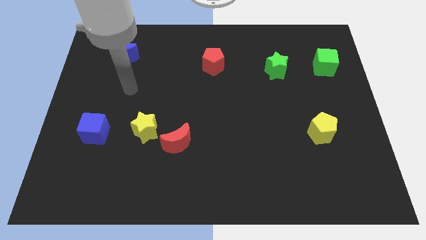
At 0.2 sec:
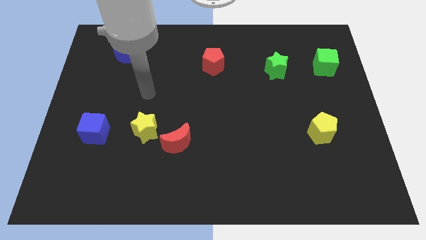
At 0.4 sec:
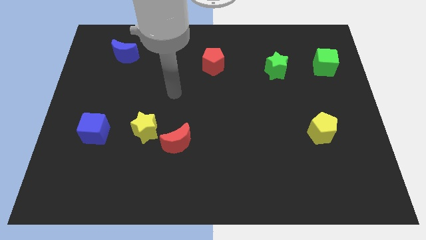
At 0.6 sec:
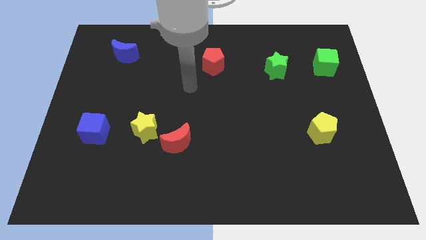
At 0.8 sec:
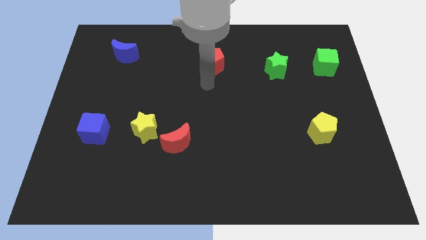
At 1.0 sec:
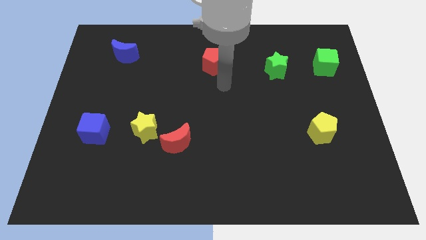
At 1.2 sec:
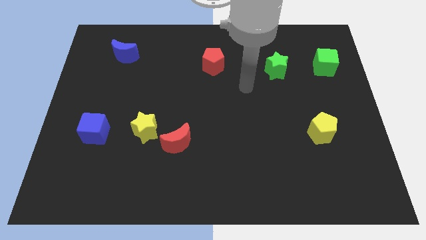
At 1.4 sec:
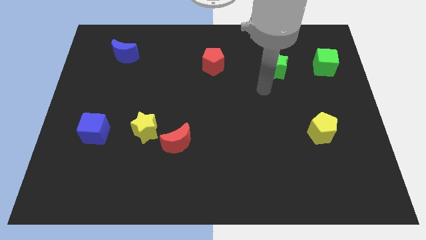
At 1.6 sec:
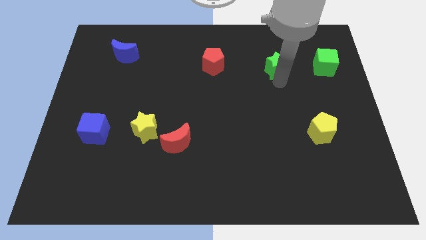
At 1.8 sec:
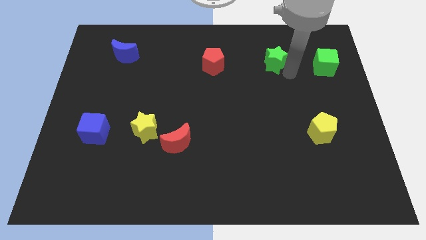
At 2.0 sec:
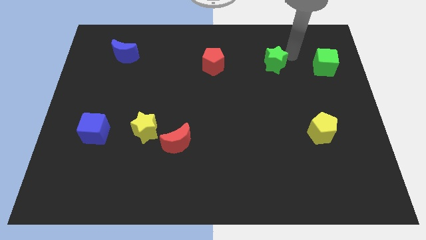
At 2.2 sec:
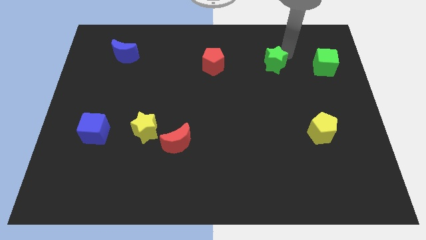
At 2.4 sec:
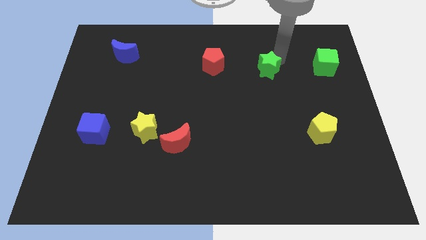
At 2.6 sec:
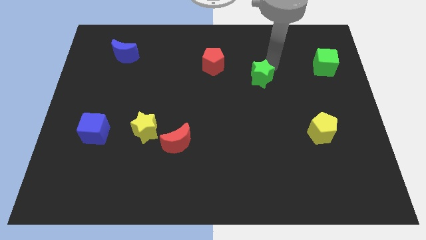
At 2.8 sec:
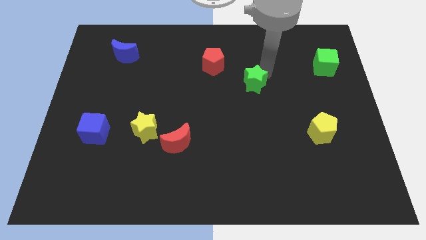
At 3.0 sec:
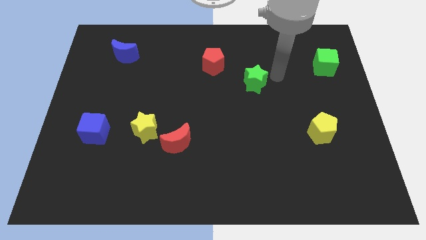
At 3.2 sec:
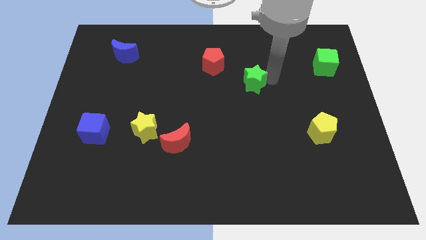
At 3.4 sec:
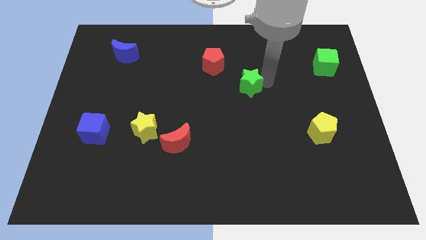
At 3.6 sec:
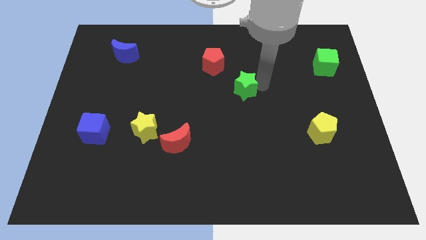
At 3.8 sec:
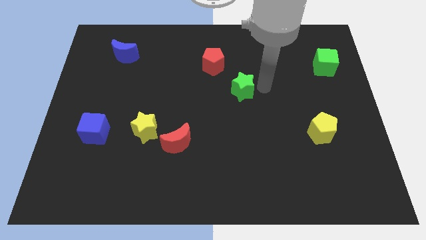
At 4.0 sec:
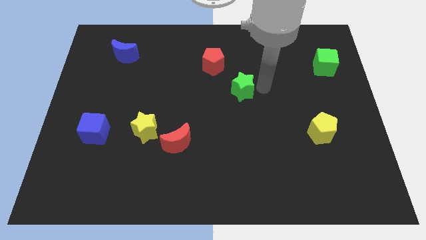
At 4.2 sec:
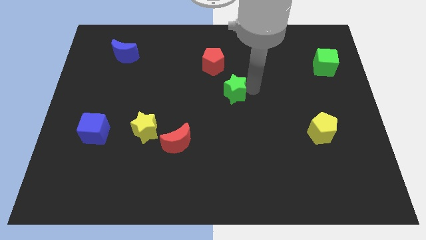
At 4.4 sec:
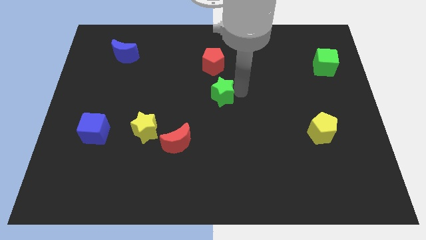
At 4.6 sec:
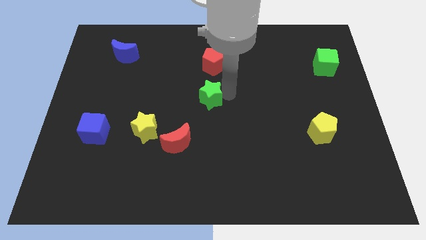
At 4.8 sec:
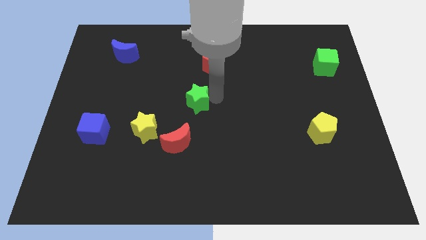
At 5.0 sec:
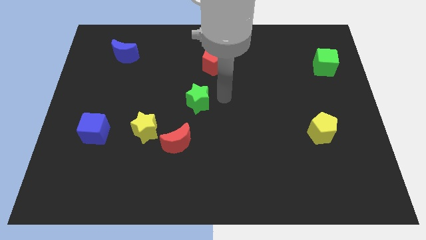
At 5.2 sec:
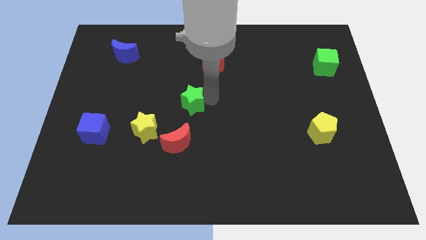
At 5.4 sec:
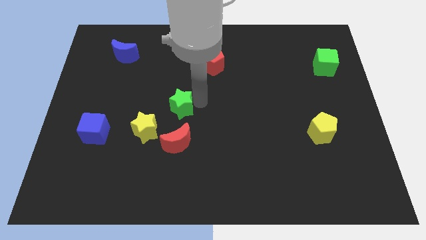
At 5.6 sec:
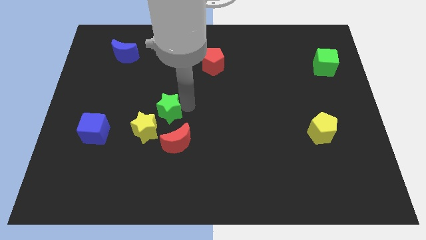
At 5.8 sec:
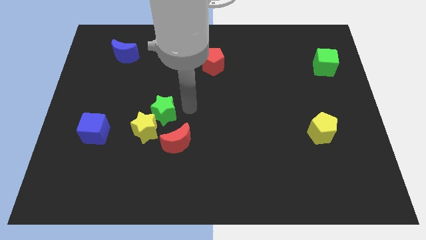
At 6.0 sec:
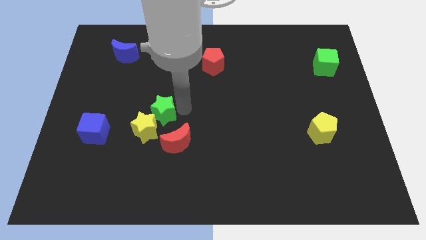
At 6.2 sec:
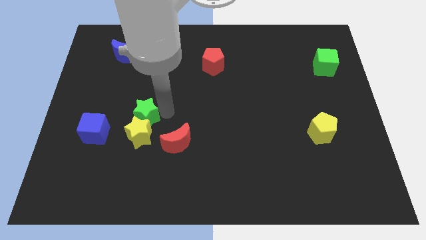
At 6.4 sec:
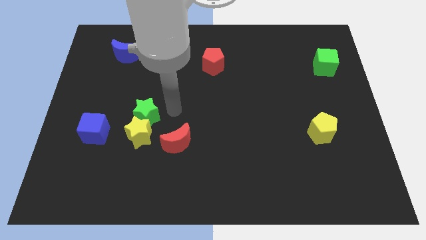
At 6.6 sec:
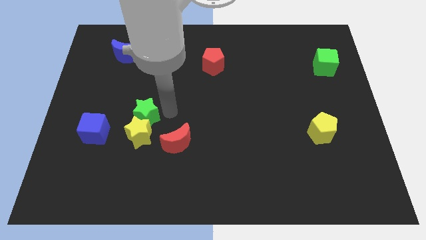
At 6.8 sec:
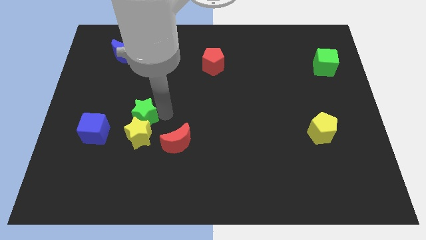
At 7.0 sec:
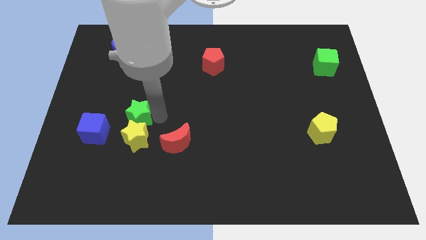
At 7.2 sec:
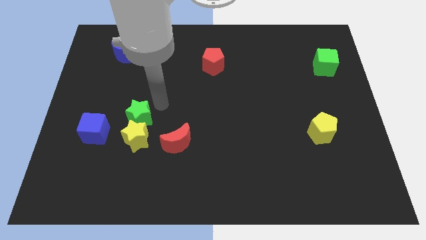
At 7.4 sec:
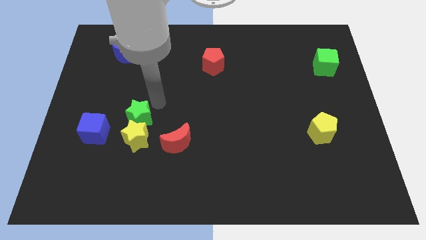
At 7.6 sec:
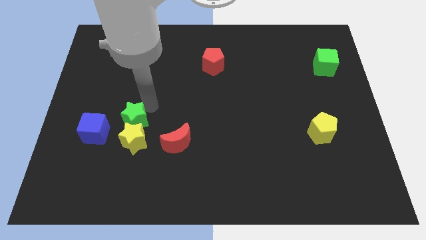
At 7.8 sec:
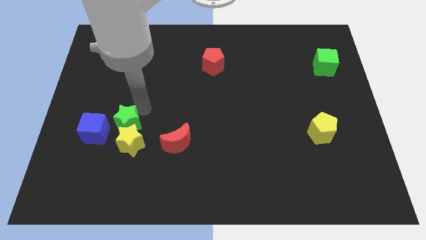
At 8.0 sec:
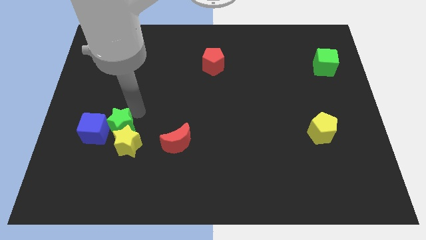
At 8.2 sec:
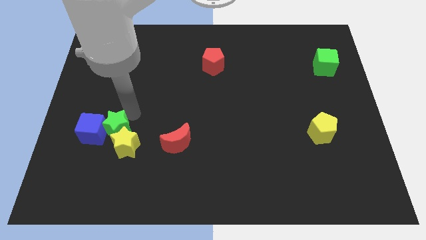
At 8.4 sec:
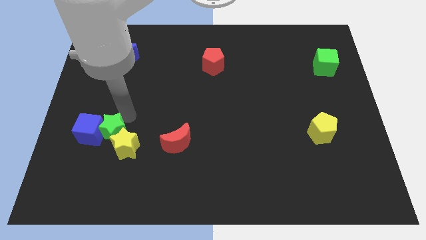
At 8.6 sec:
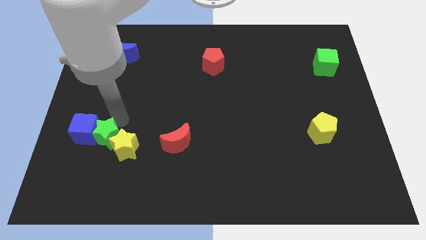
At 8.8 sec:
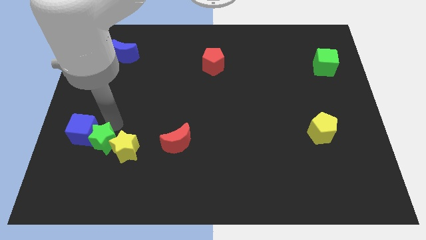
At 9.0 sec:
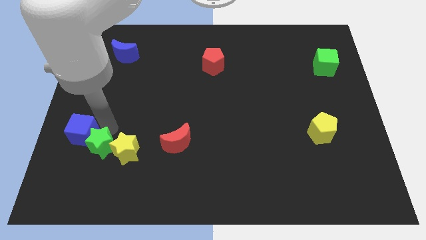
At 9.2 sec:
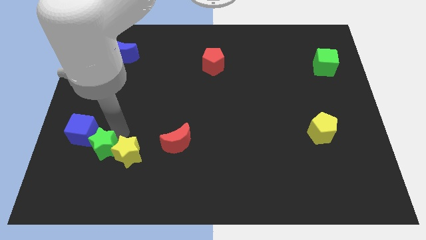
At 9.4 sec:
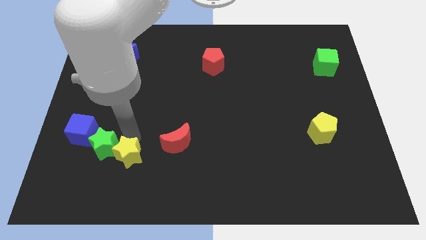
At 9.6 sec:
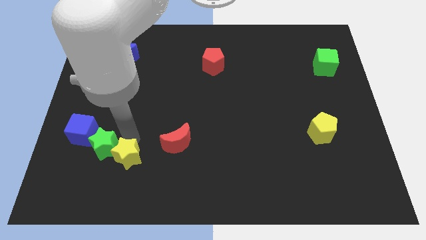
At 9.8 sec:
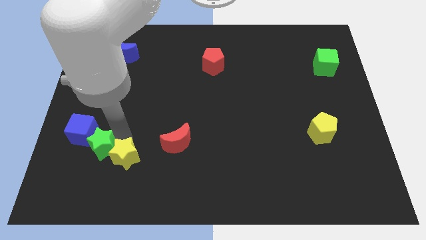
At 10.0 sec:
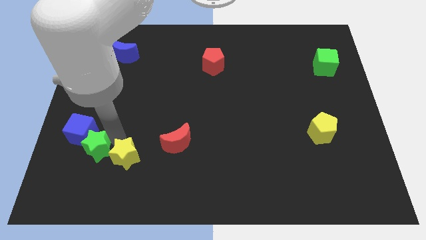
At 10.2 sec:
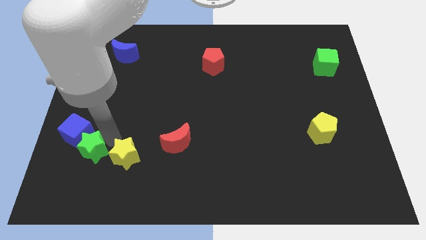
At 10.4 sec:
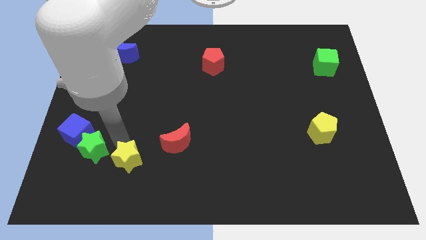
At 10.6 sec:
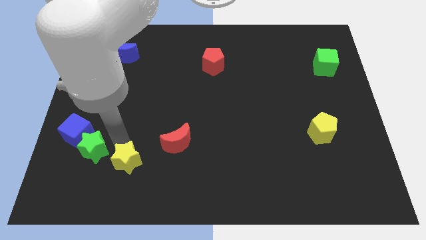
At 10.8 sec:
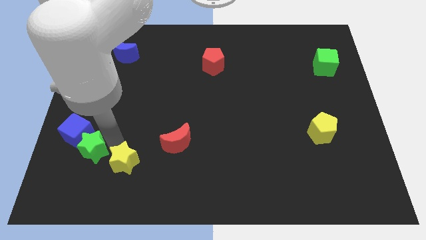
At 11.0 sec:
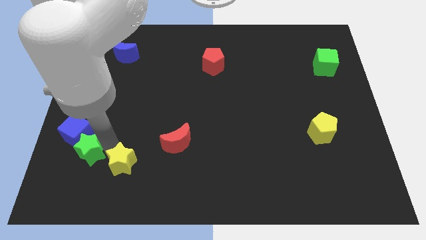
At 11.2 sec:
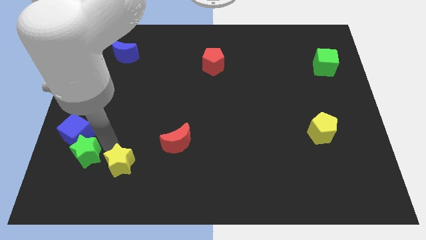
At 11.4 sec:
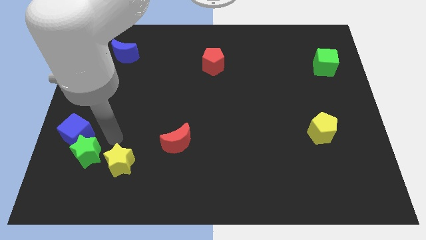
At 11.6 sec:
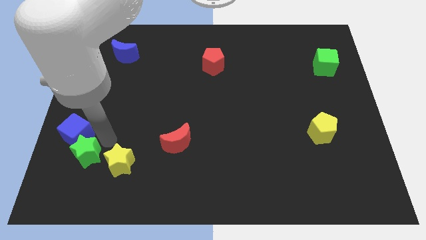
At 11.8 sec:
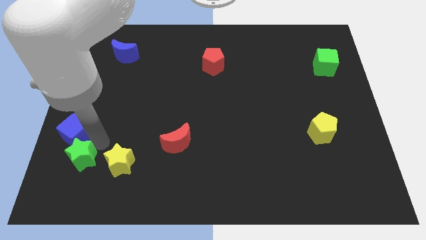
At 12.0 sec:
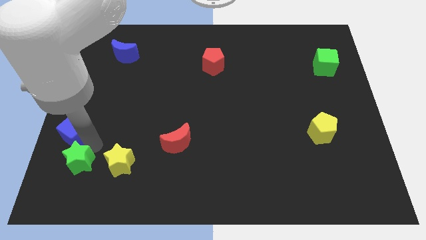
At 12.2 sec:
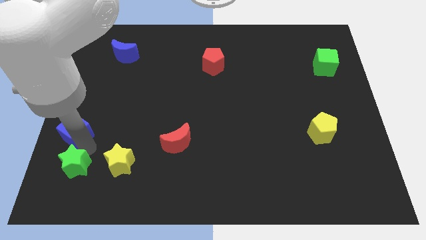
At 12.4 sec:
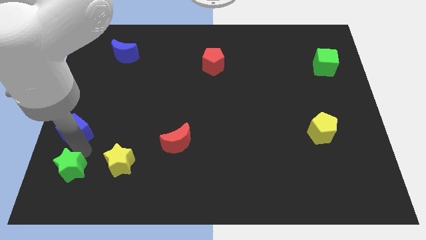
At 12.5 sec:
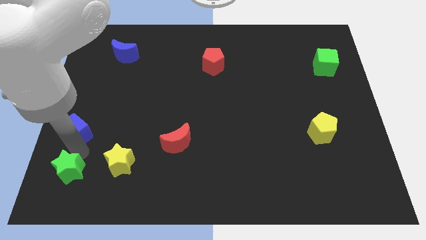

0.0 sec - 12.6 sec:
move the green star to the bottom left of the board

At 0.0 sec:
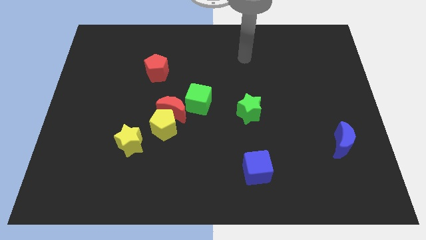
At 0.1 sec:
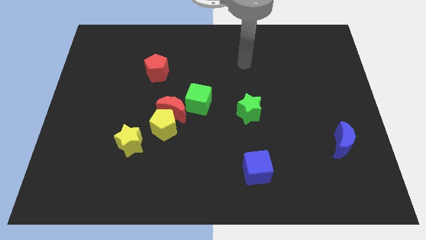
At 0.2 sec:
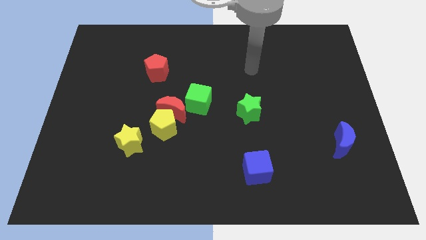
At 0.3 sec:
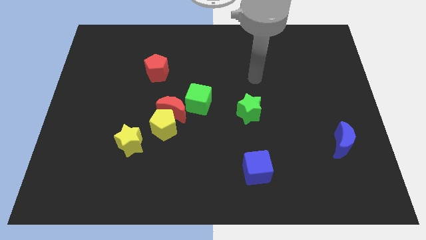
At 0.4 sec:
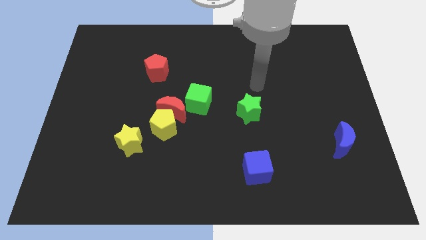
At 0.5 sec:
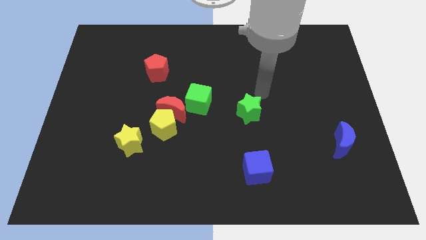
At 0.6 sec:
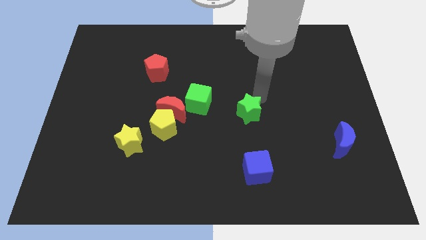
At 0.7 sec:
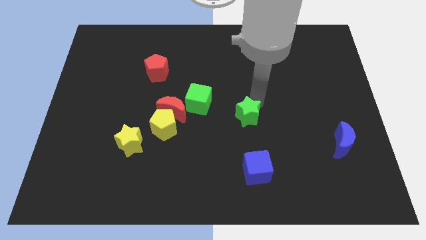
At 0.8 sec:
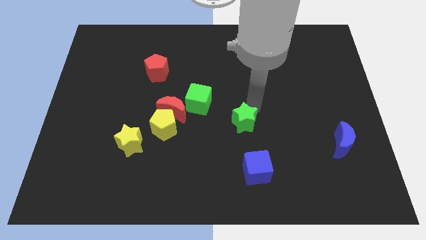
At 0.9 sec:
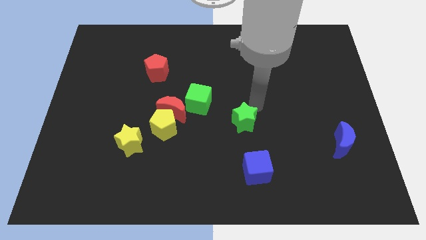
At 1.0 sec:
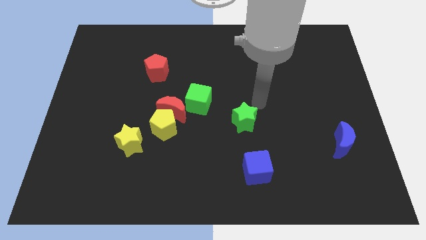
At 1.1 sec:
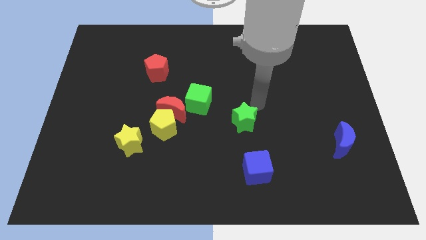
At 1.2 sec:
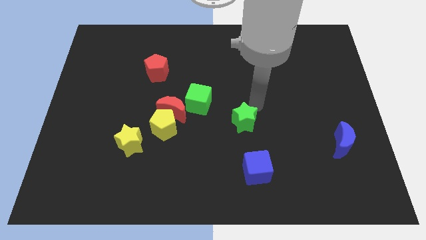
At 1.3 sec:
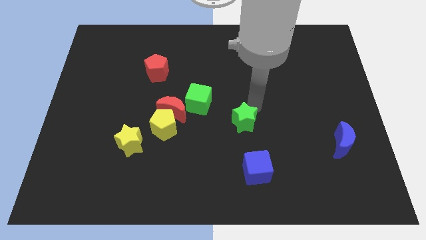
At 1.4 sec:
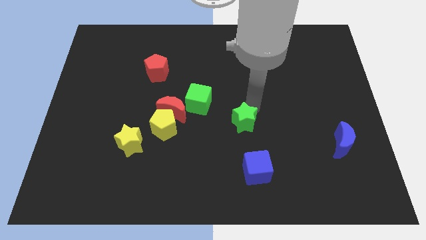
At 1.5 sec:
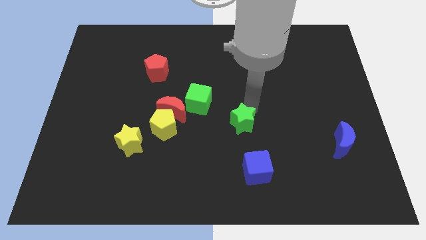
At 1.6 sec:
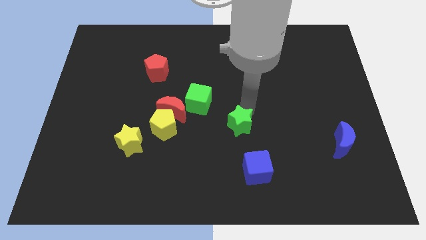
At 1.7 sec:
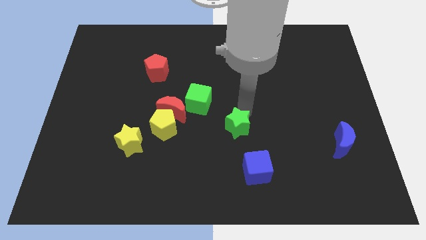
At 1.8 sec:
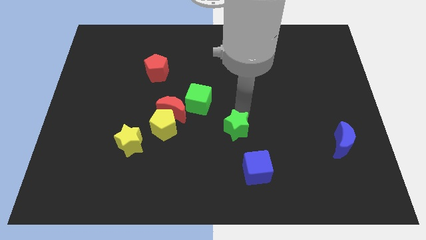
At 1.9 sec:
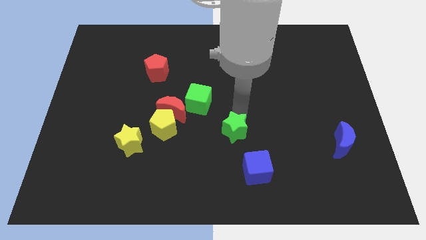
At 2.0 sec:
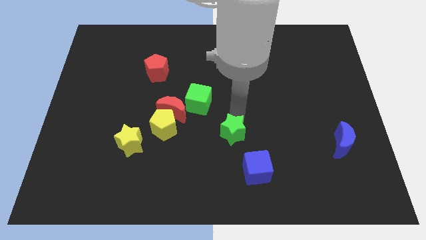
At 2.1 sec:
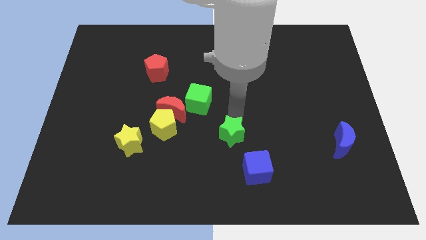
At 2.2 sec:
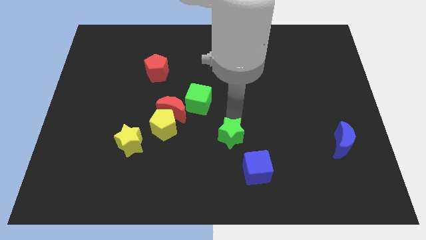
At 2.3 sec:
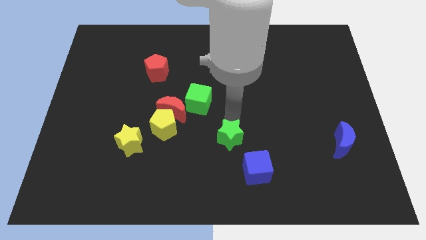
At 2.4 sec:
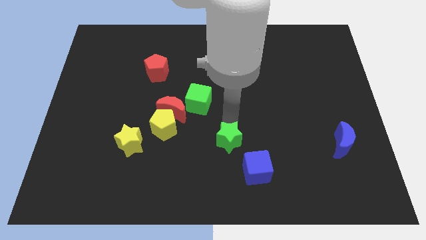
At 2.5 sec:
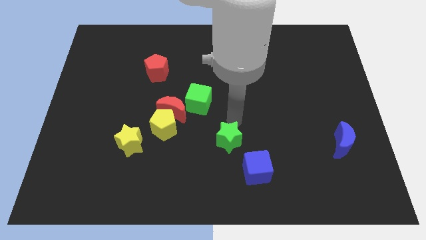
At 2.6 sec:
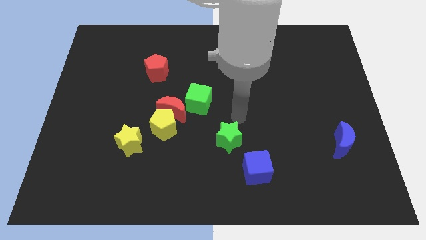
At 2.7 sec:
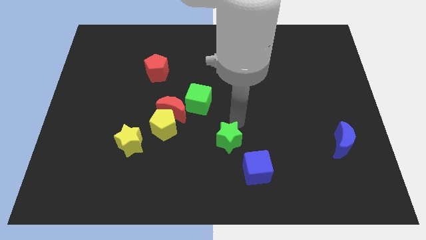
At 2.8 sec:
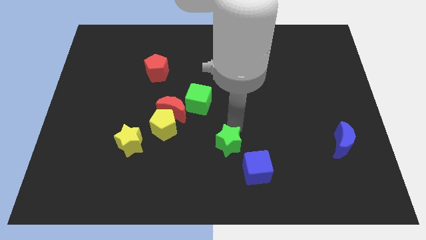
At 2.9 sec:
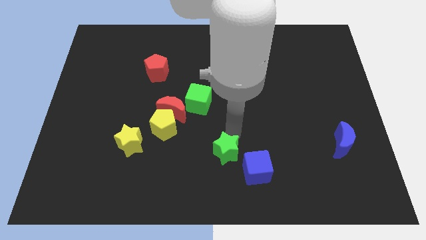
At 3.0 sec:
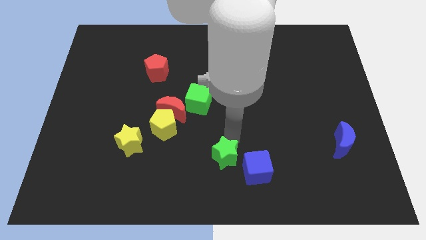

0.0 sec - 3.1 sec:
put the green star to the bottom side
